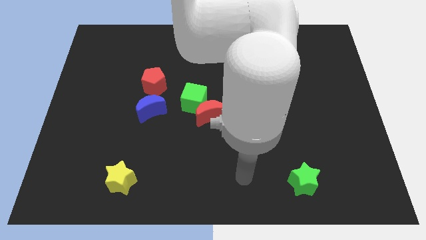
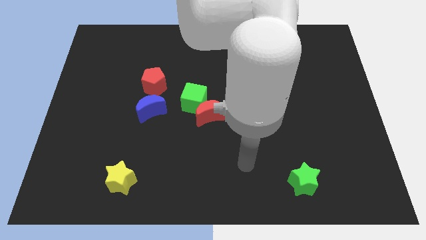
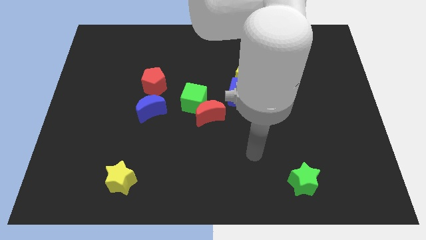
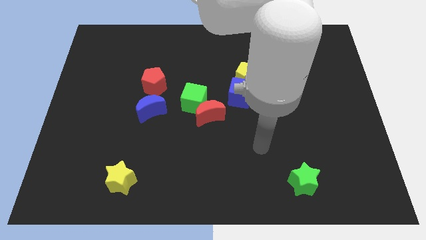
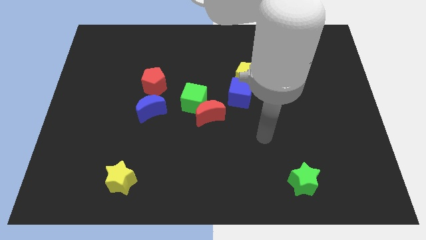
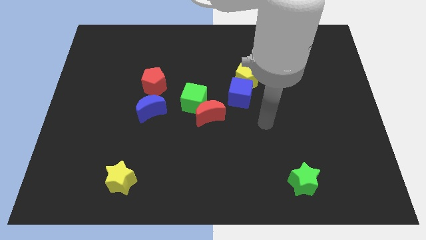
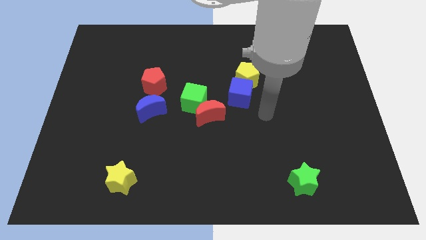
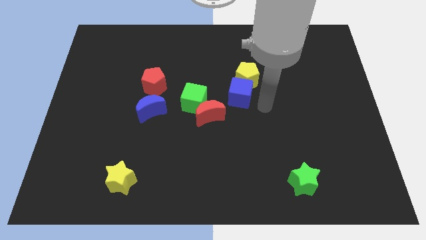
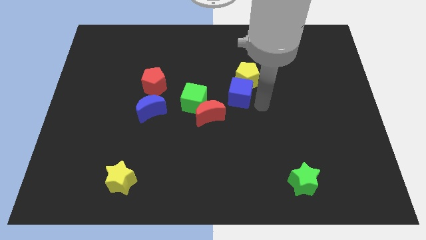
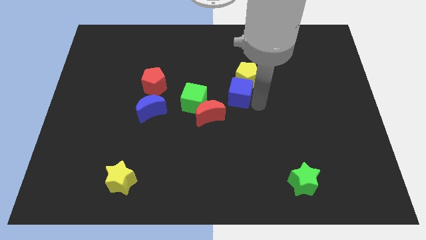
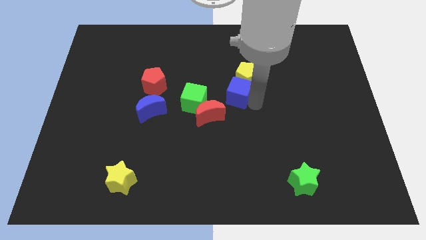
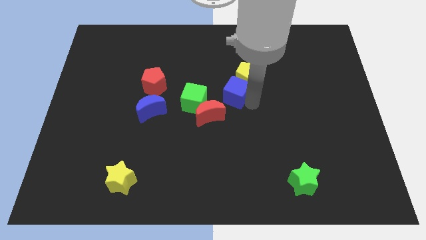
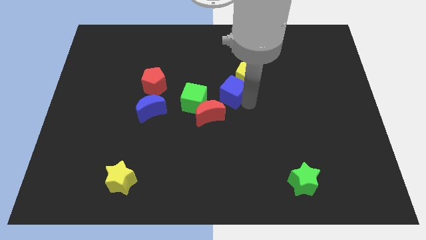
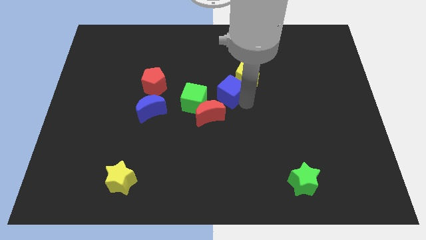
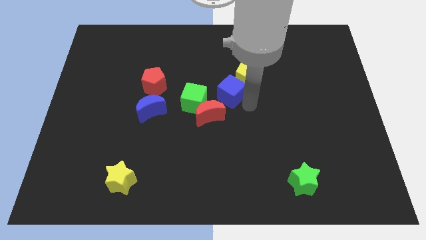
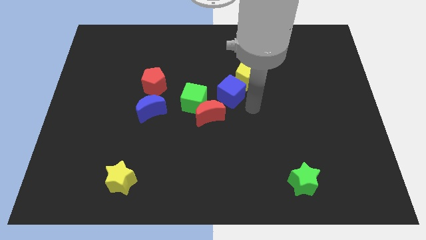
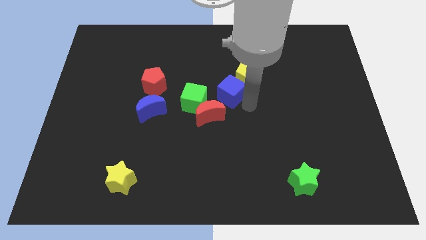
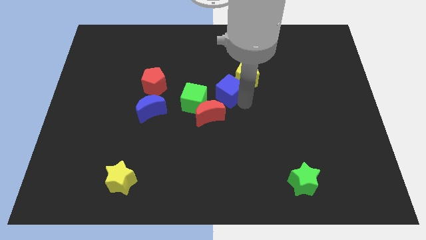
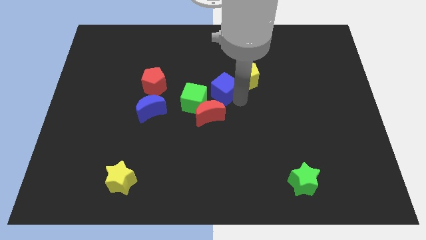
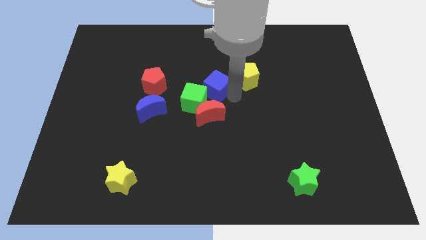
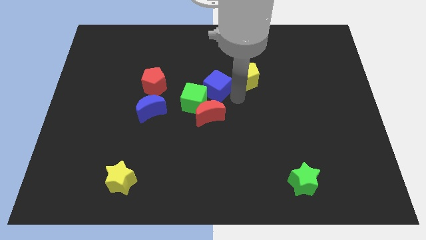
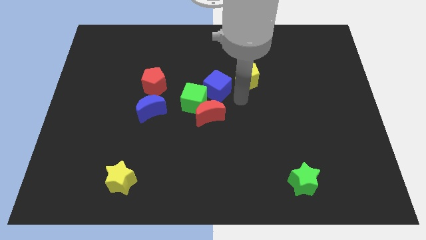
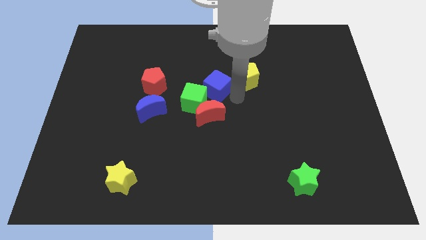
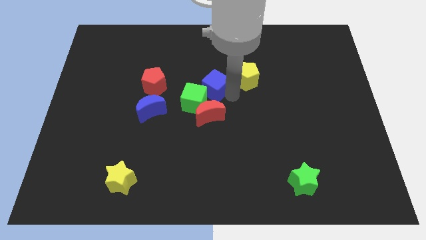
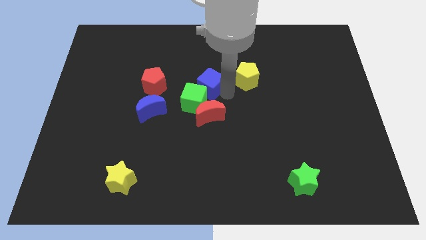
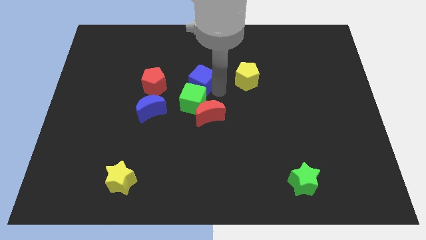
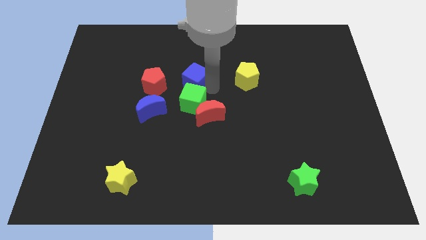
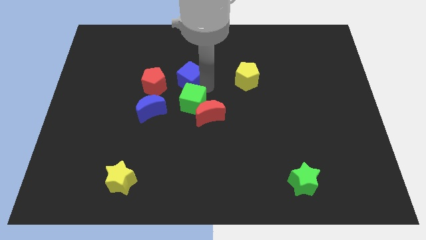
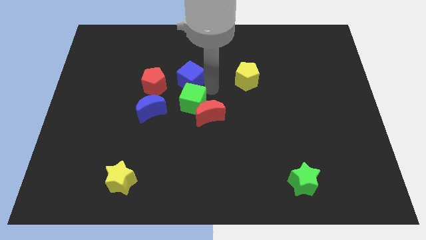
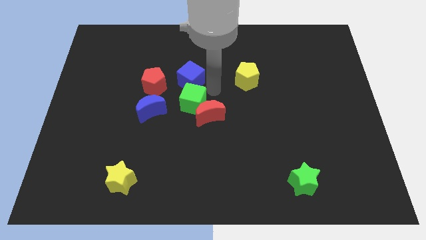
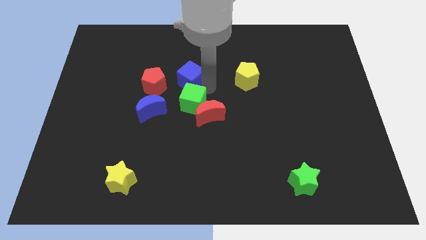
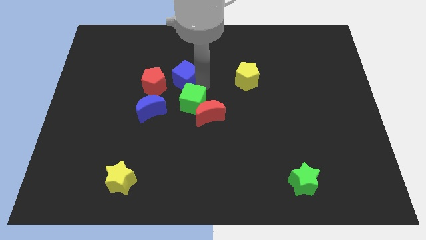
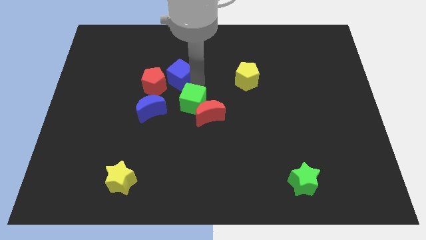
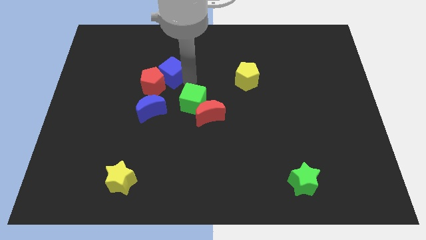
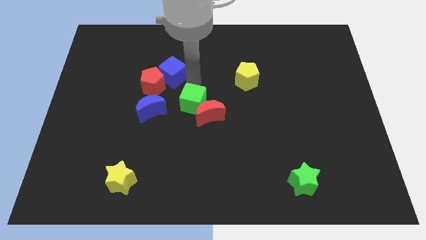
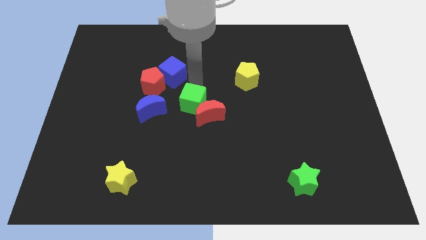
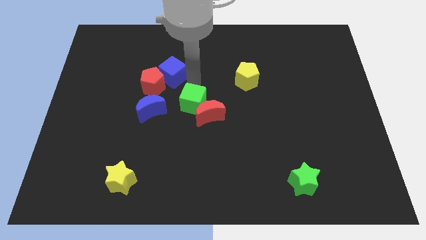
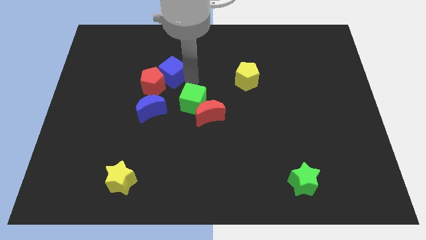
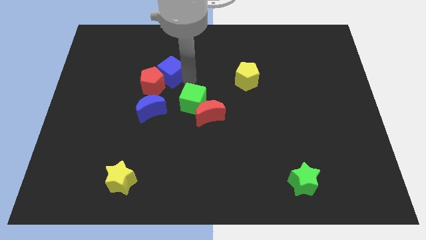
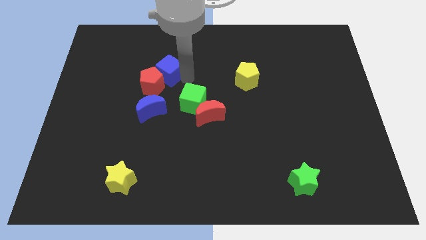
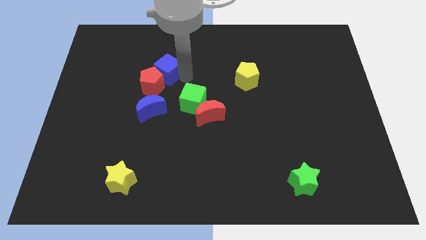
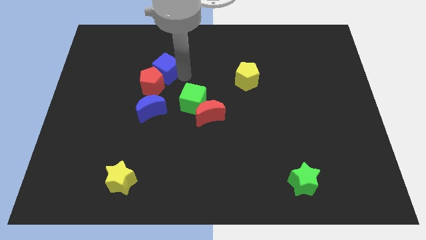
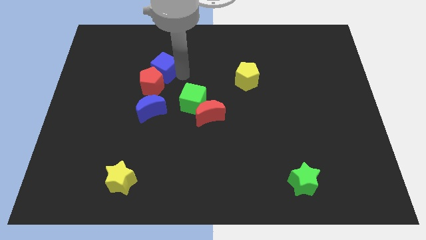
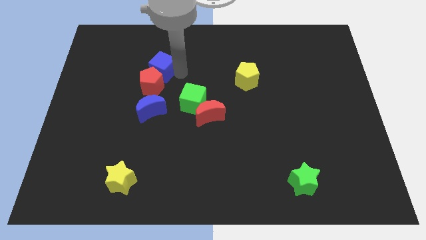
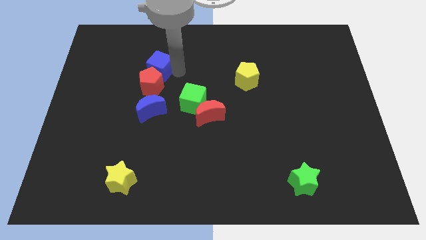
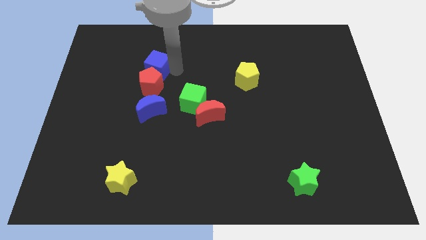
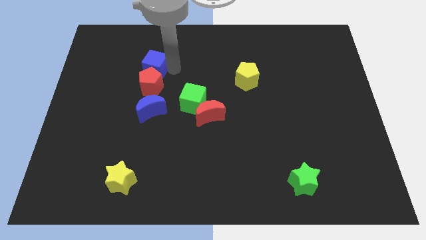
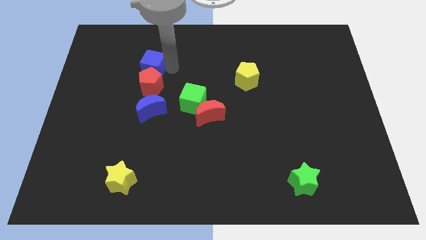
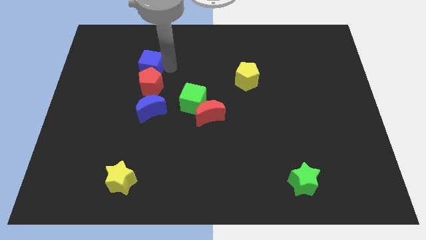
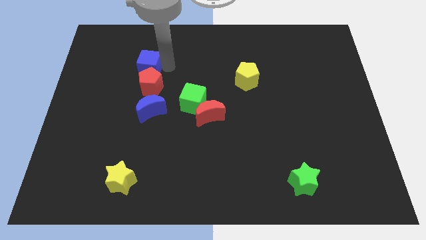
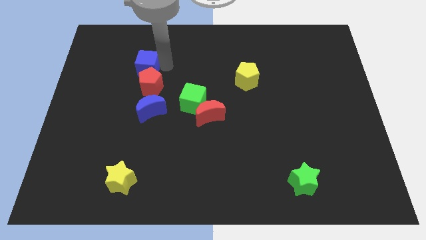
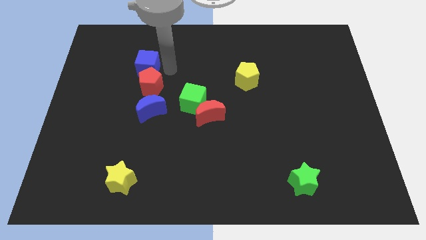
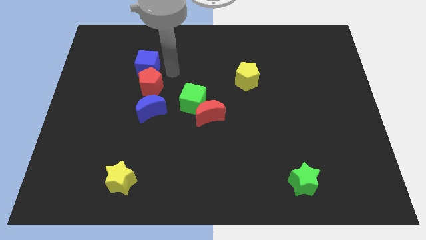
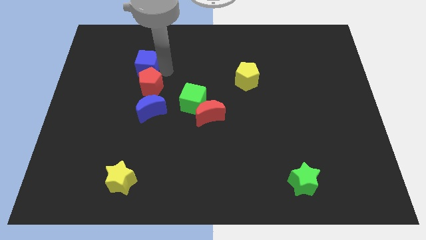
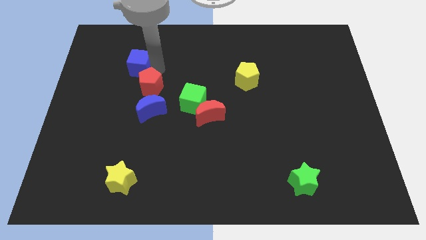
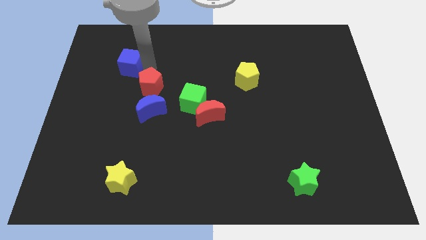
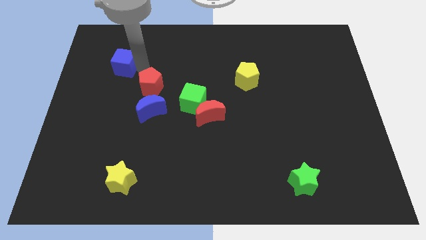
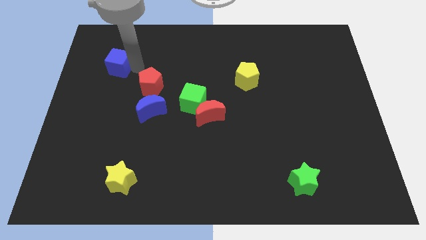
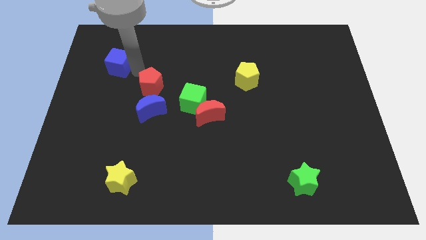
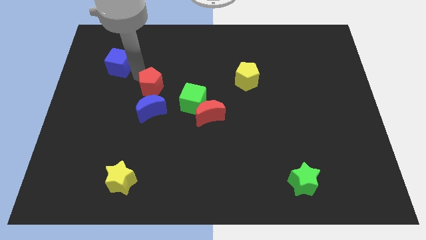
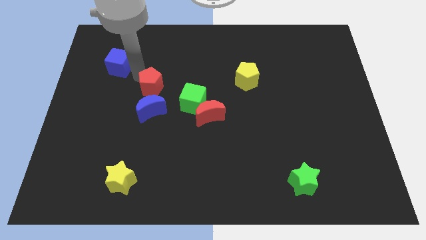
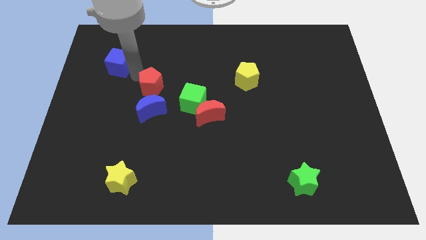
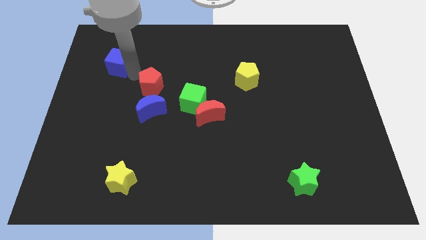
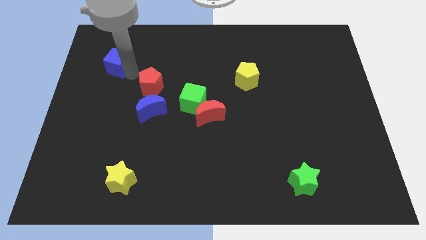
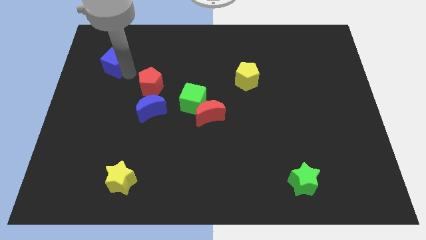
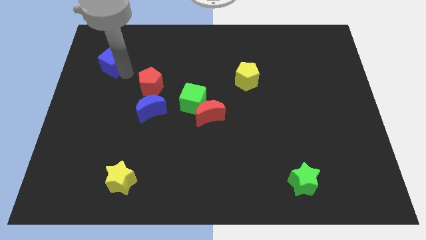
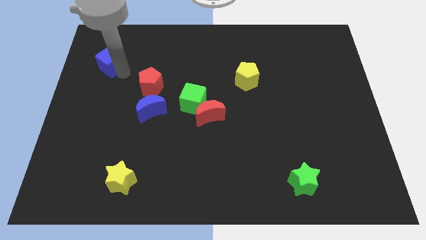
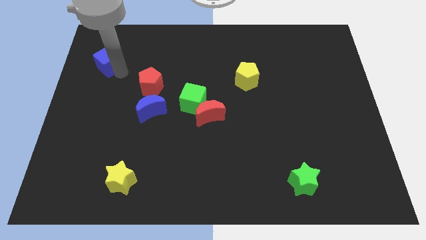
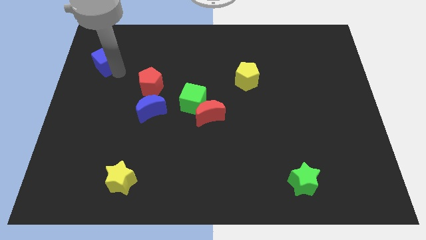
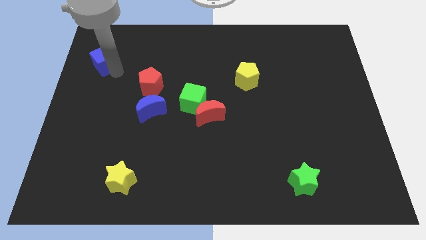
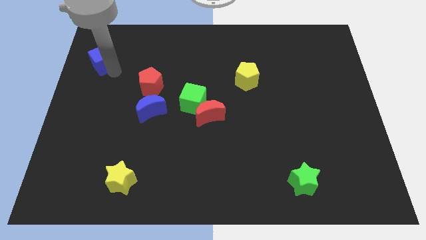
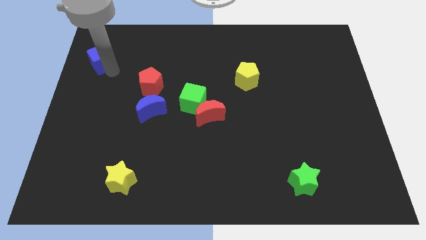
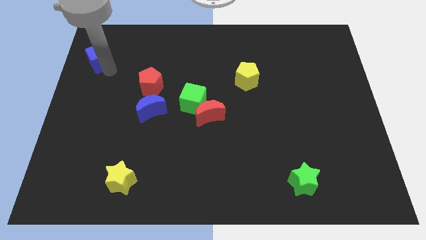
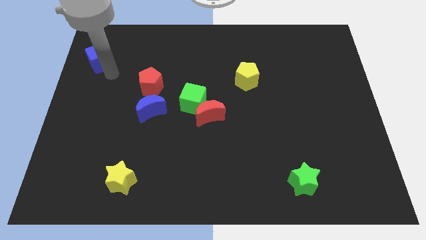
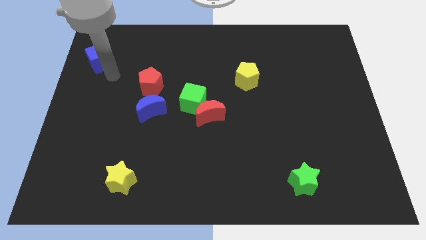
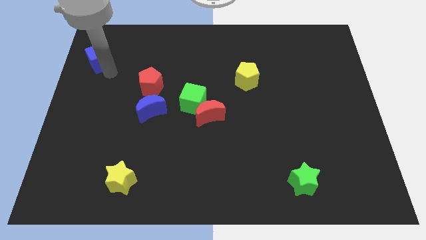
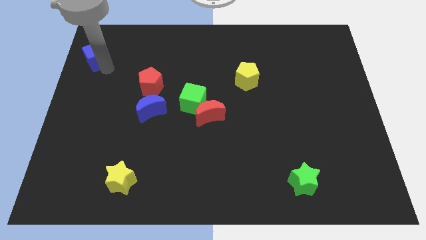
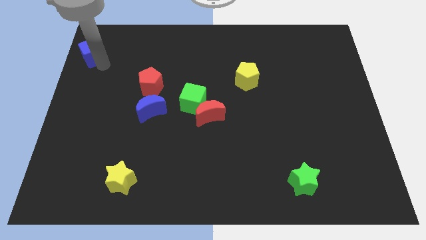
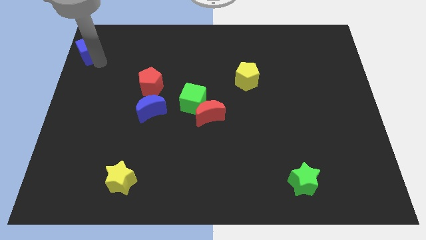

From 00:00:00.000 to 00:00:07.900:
move the blue cube to the upper left corner
